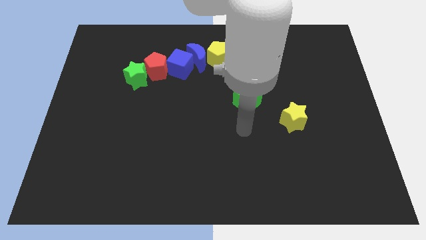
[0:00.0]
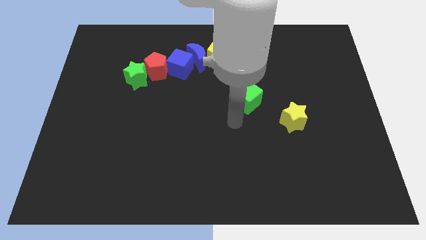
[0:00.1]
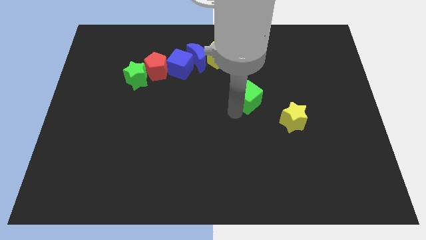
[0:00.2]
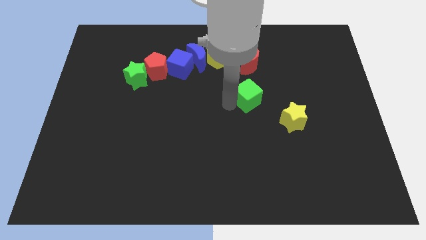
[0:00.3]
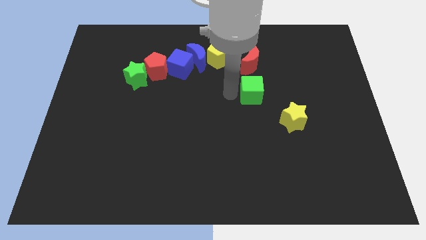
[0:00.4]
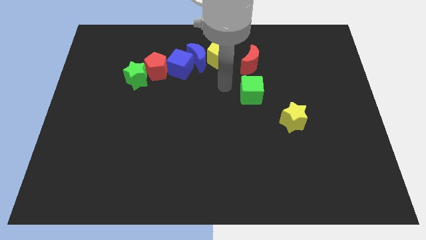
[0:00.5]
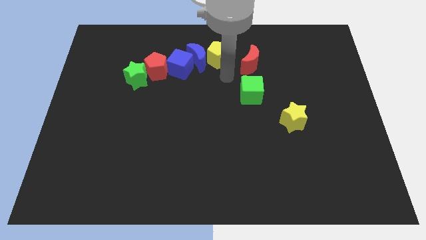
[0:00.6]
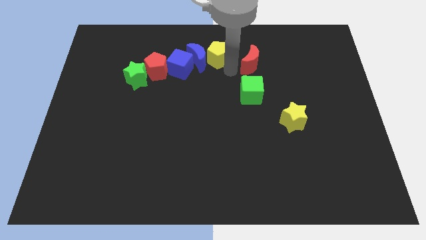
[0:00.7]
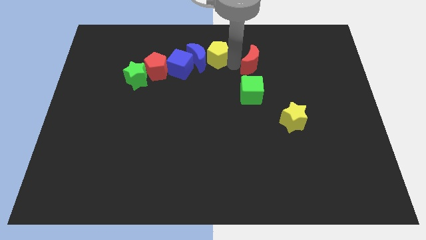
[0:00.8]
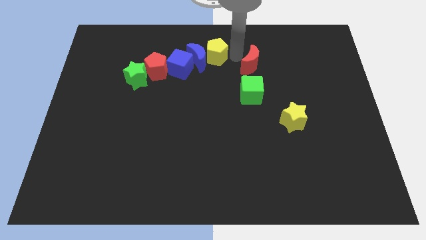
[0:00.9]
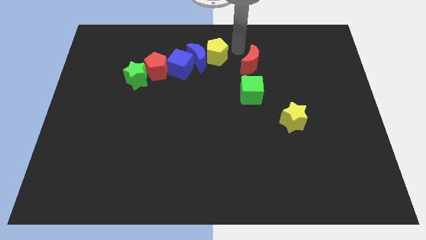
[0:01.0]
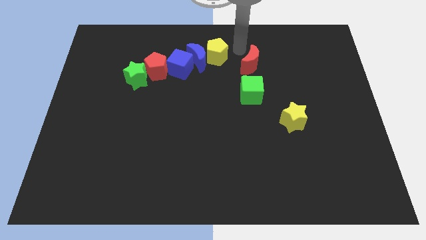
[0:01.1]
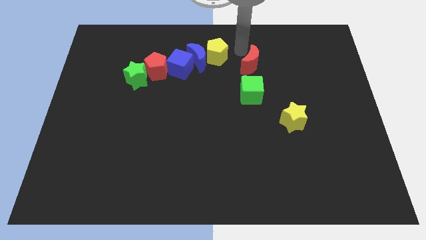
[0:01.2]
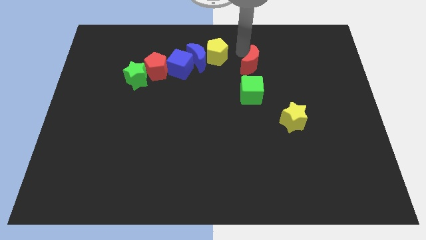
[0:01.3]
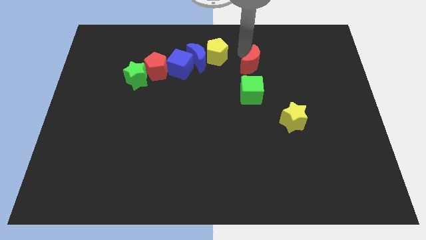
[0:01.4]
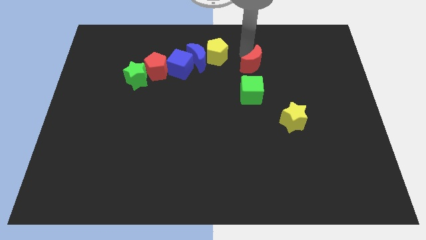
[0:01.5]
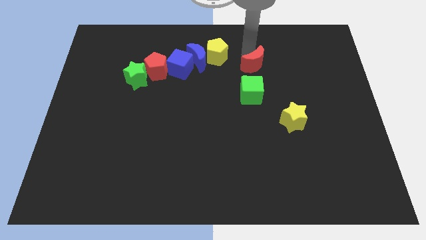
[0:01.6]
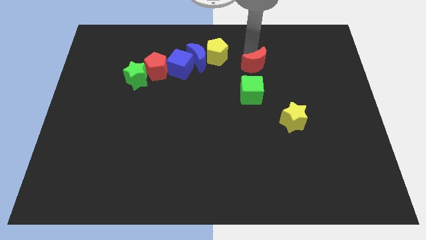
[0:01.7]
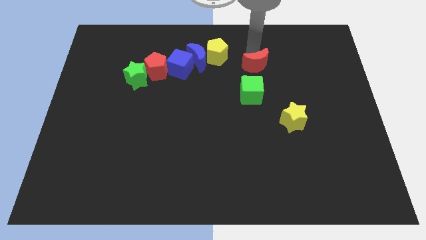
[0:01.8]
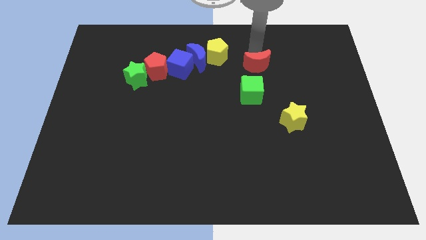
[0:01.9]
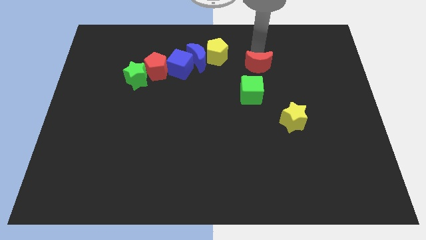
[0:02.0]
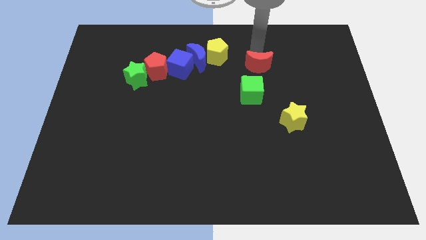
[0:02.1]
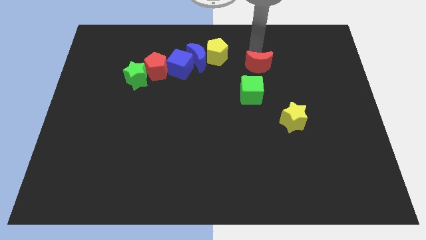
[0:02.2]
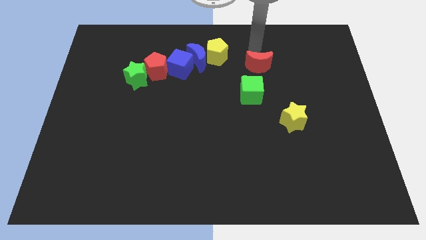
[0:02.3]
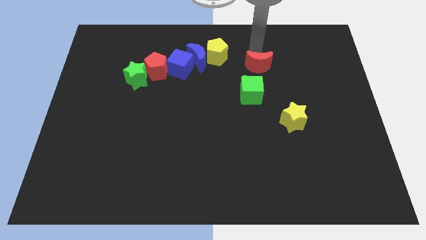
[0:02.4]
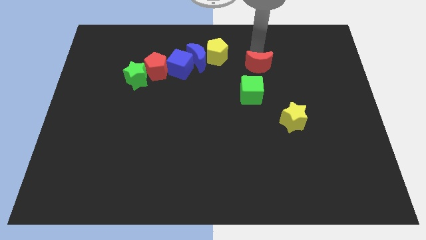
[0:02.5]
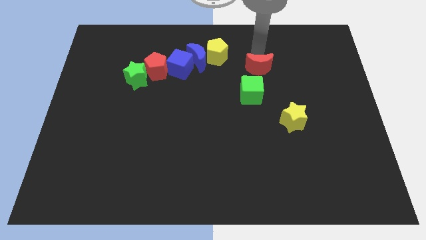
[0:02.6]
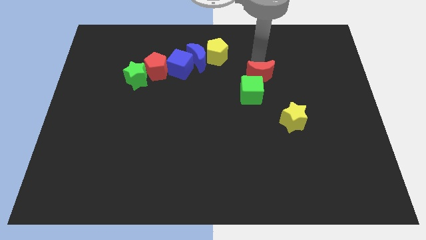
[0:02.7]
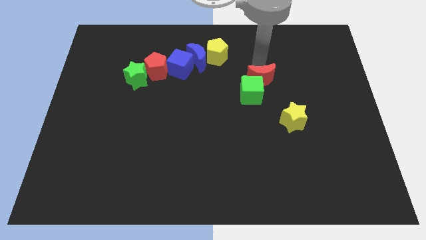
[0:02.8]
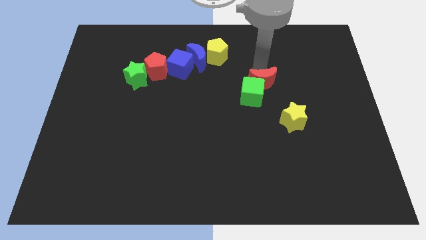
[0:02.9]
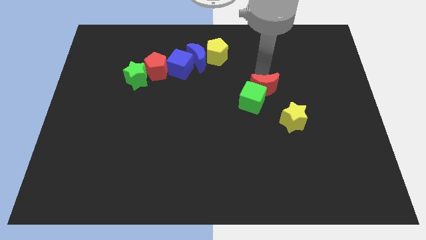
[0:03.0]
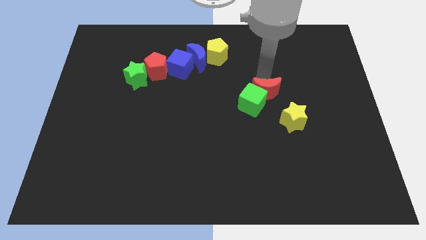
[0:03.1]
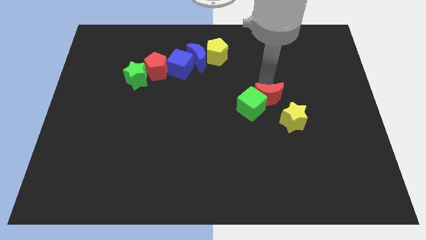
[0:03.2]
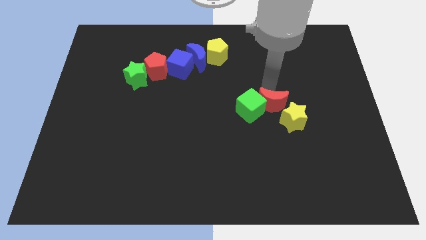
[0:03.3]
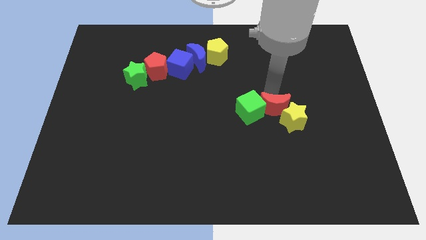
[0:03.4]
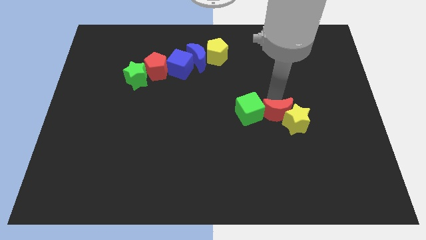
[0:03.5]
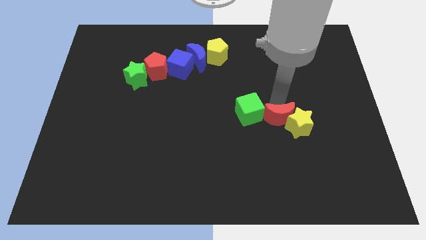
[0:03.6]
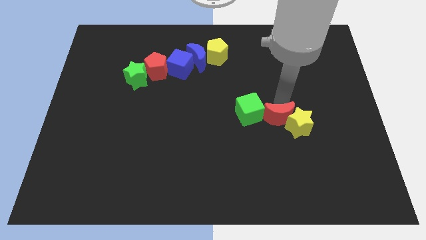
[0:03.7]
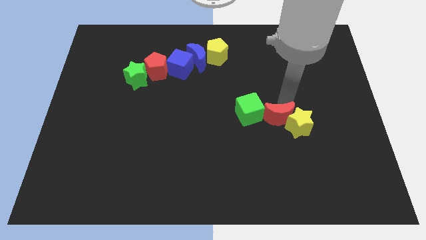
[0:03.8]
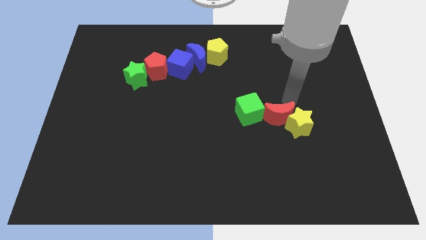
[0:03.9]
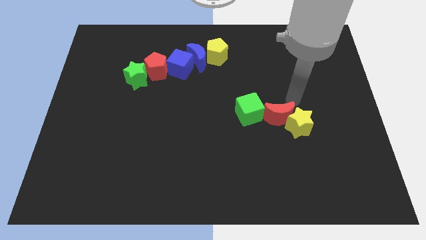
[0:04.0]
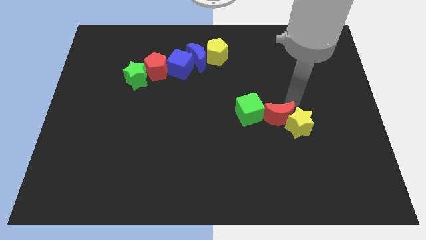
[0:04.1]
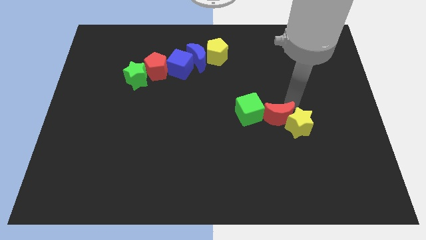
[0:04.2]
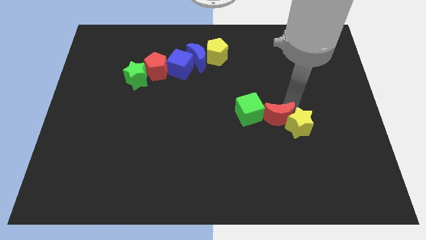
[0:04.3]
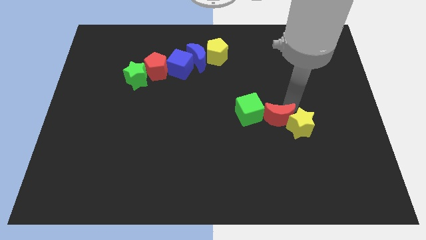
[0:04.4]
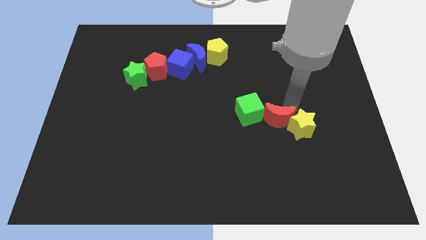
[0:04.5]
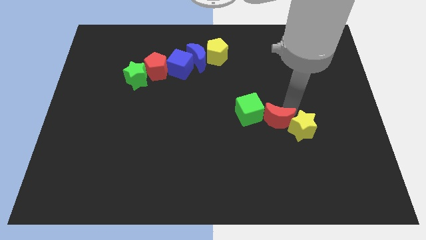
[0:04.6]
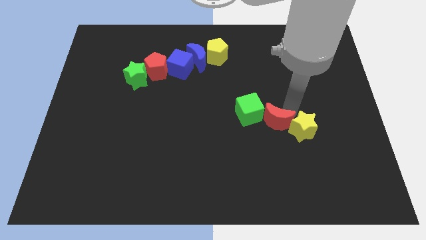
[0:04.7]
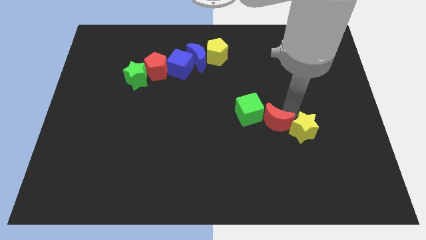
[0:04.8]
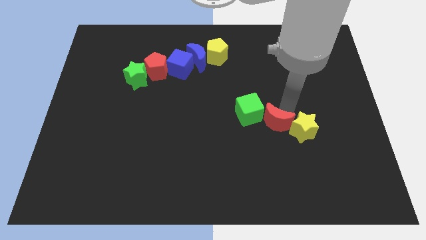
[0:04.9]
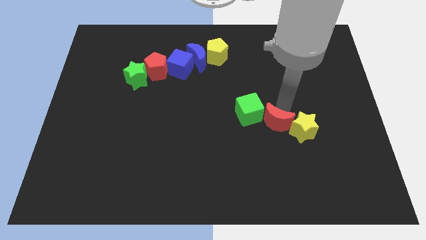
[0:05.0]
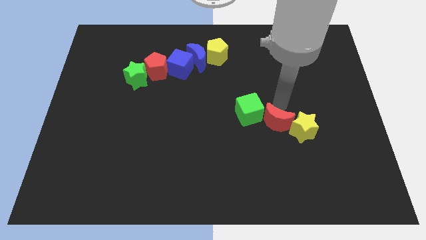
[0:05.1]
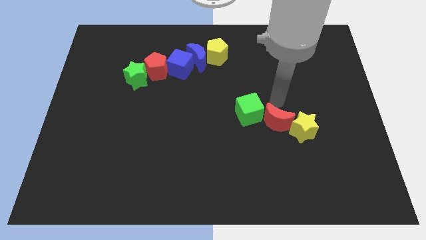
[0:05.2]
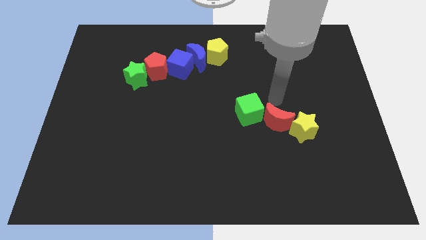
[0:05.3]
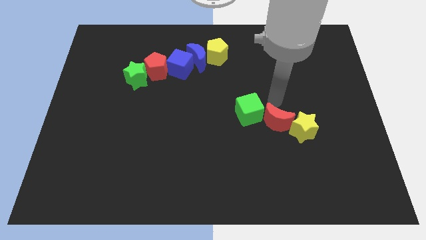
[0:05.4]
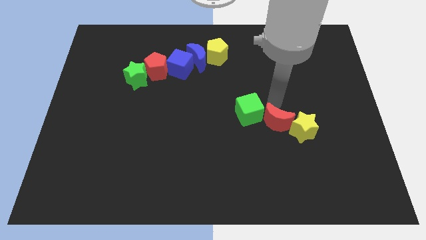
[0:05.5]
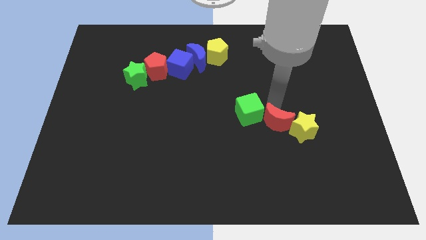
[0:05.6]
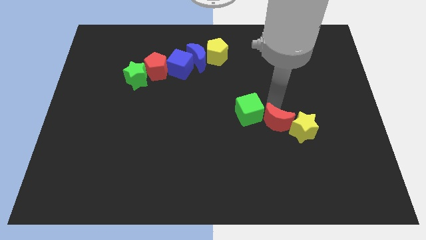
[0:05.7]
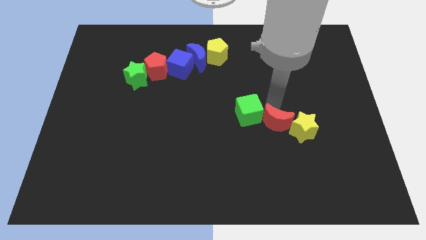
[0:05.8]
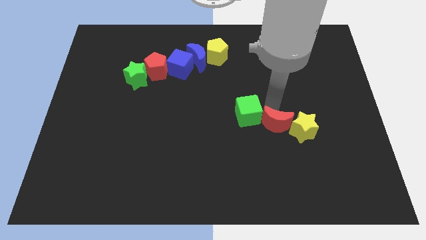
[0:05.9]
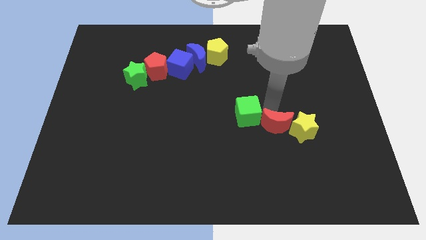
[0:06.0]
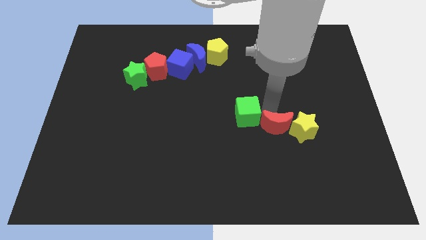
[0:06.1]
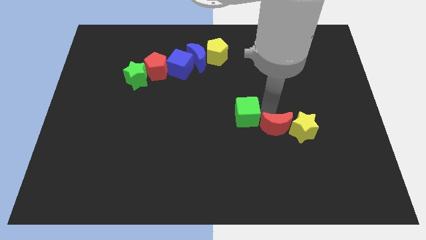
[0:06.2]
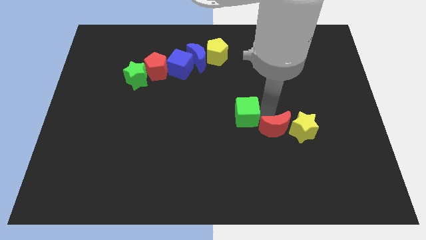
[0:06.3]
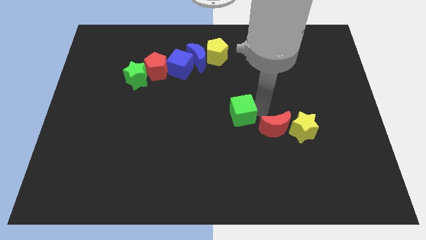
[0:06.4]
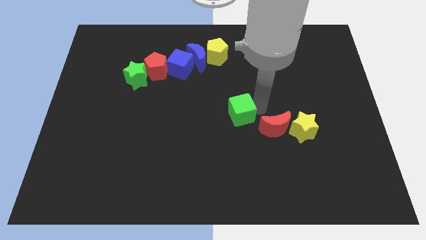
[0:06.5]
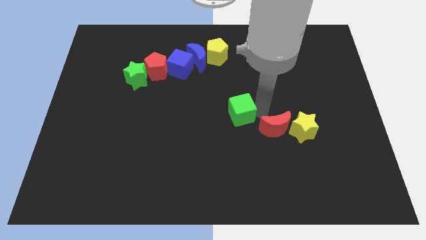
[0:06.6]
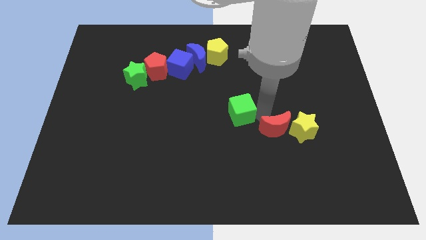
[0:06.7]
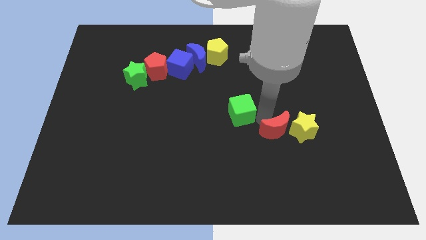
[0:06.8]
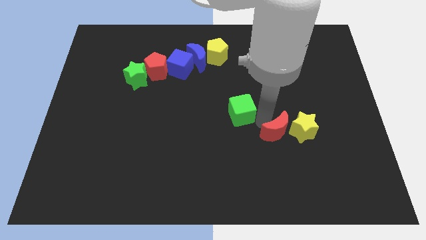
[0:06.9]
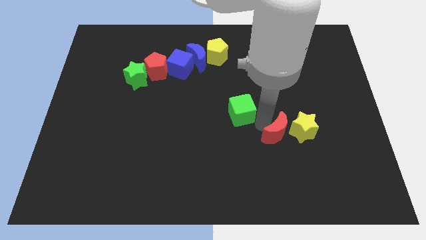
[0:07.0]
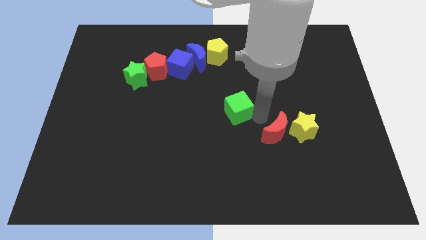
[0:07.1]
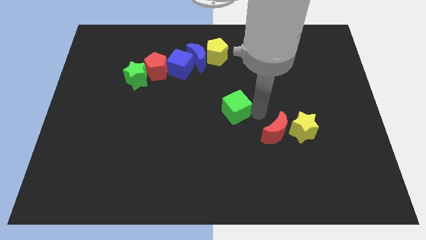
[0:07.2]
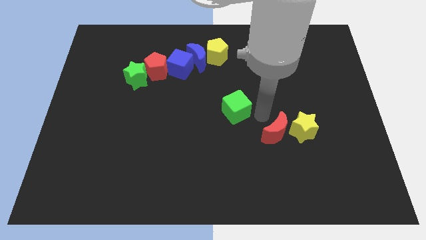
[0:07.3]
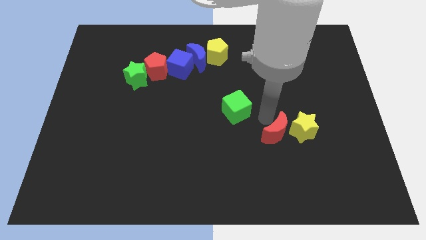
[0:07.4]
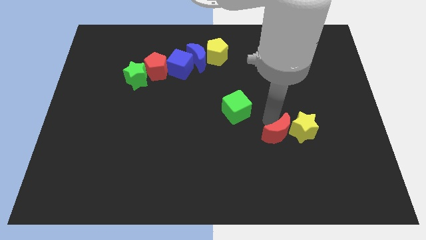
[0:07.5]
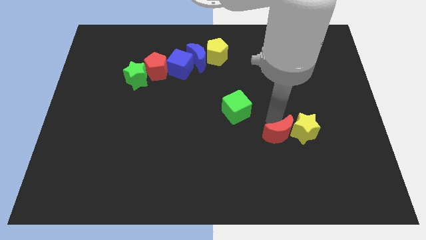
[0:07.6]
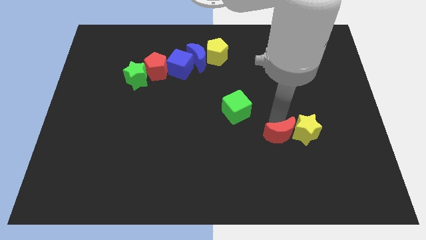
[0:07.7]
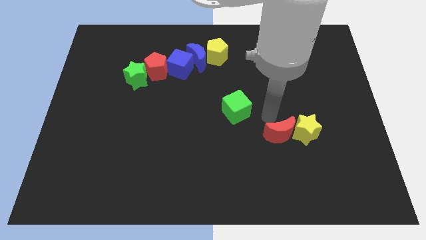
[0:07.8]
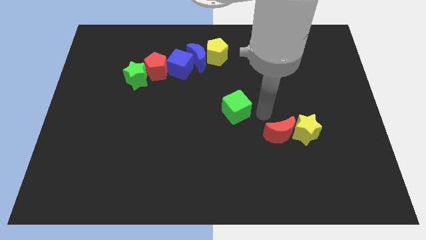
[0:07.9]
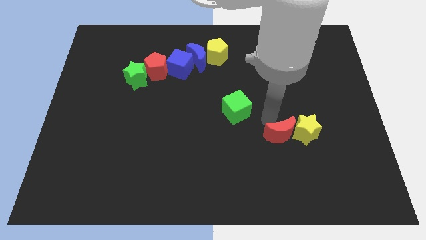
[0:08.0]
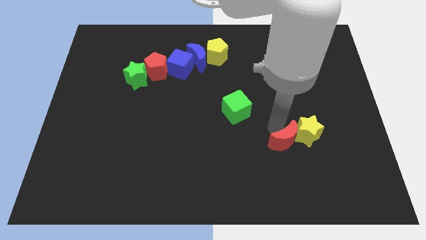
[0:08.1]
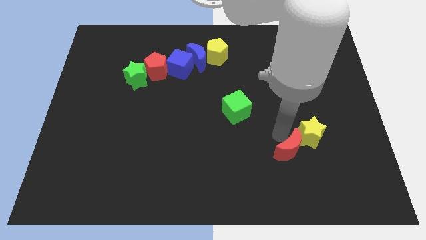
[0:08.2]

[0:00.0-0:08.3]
push the red moon below the yellow star
